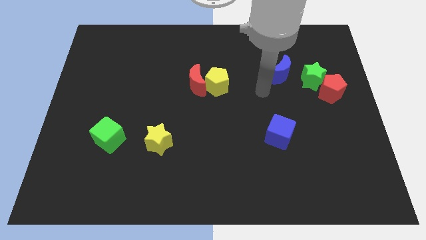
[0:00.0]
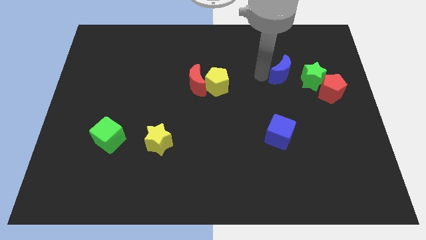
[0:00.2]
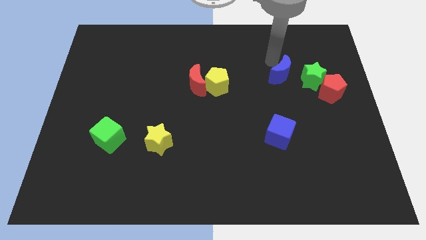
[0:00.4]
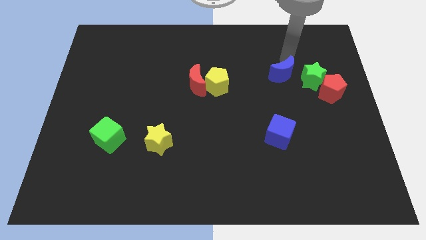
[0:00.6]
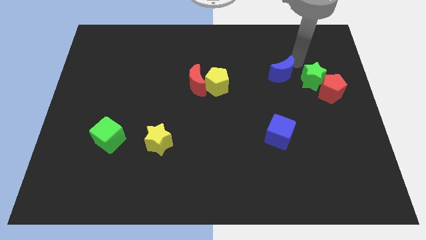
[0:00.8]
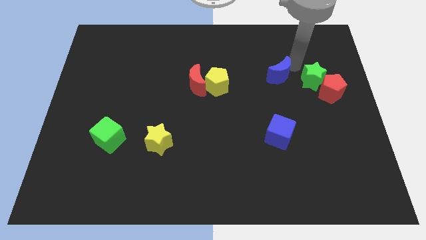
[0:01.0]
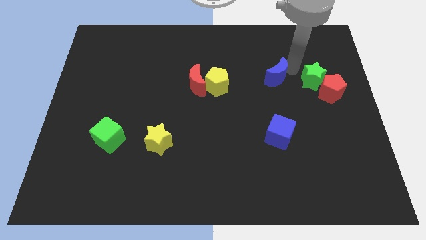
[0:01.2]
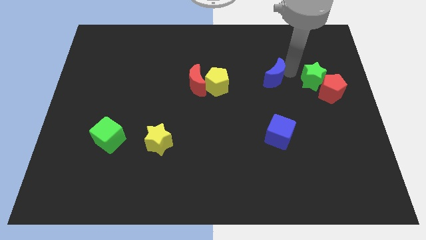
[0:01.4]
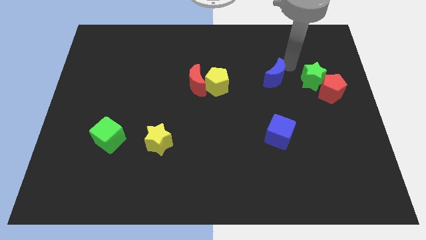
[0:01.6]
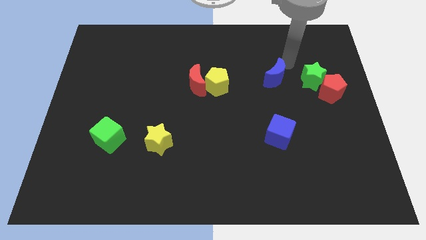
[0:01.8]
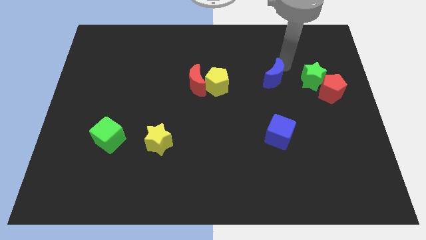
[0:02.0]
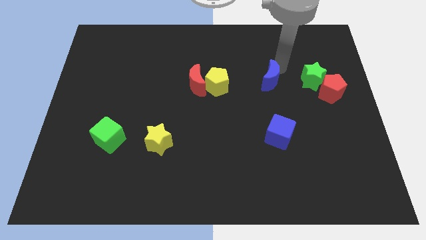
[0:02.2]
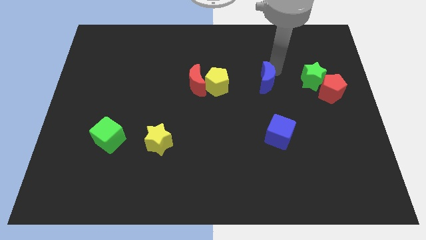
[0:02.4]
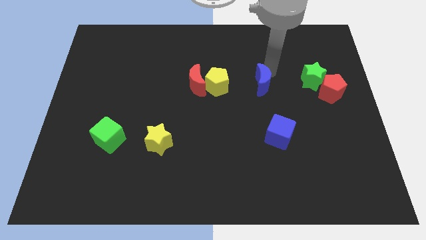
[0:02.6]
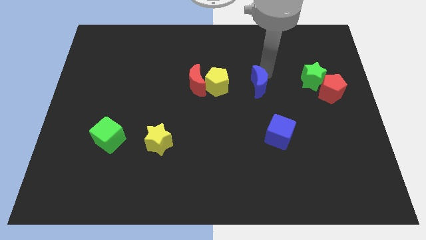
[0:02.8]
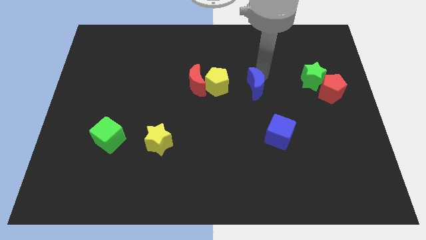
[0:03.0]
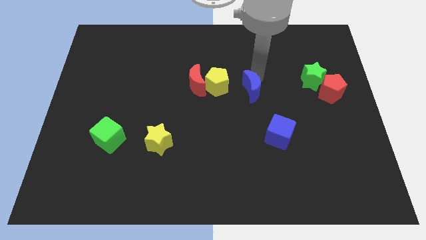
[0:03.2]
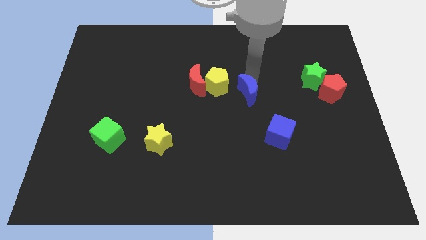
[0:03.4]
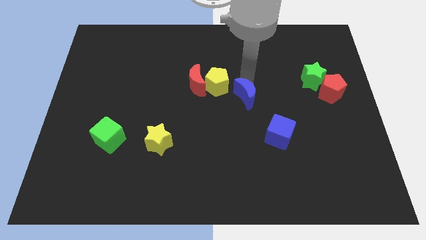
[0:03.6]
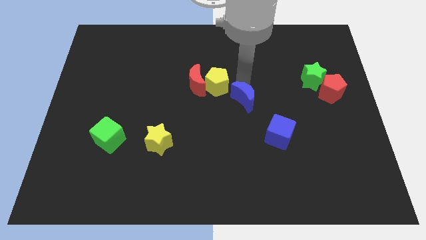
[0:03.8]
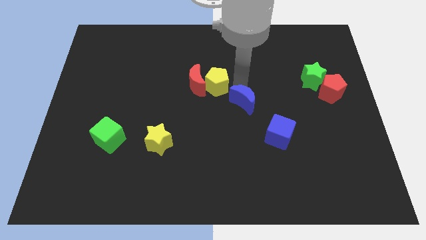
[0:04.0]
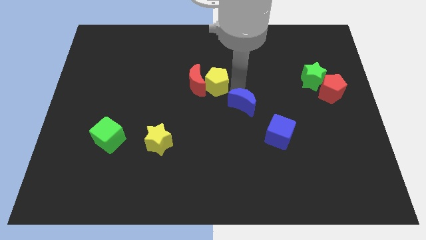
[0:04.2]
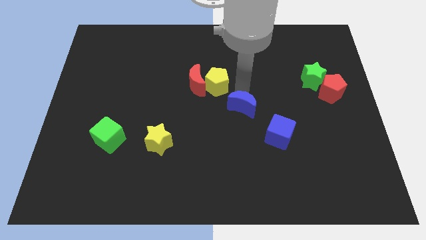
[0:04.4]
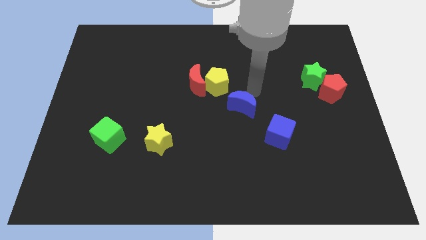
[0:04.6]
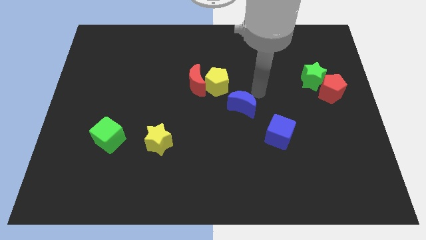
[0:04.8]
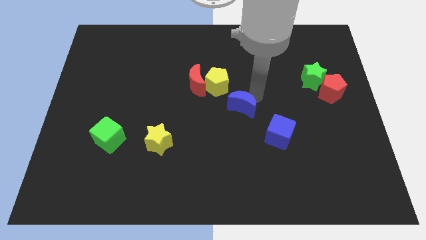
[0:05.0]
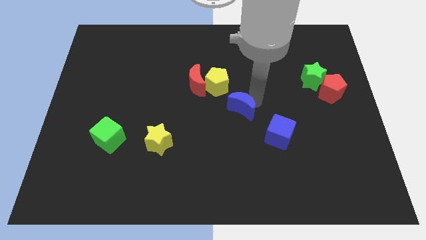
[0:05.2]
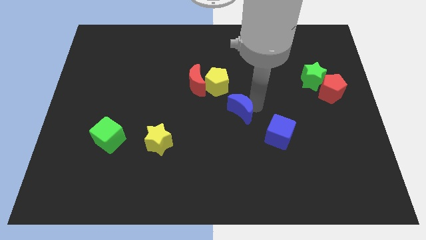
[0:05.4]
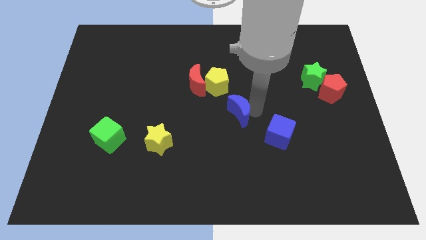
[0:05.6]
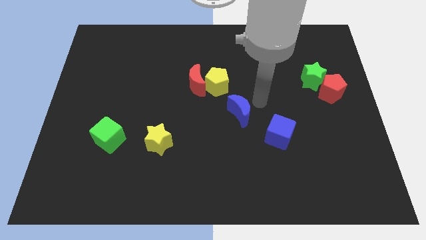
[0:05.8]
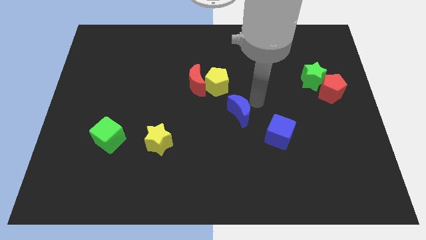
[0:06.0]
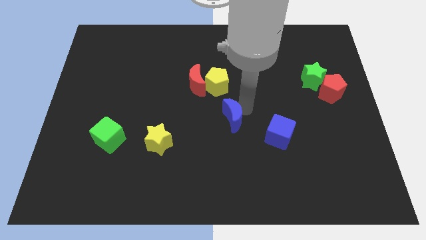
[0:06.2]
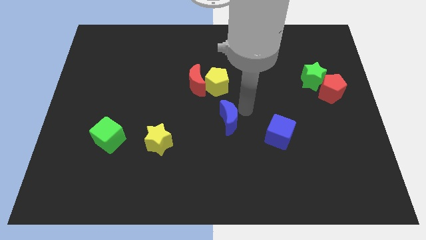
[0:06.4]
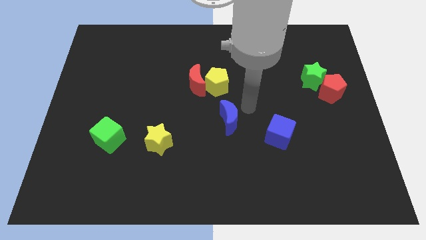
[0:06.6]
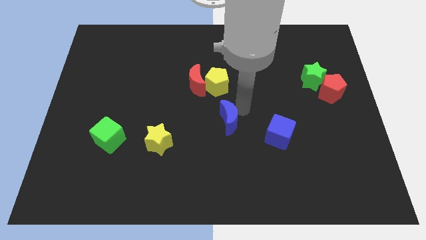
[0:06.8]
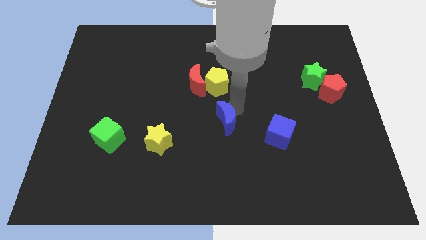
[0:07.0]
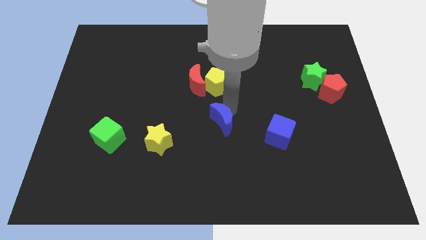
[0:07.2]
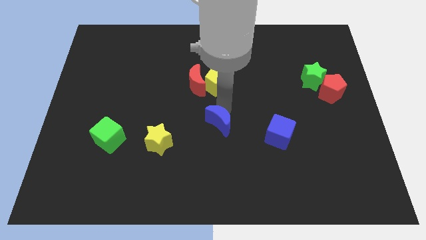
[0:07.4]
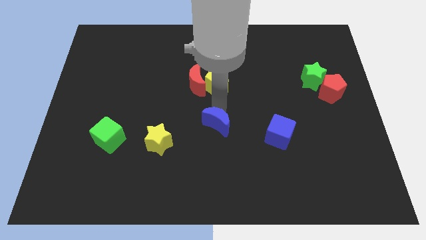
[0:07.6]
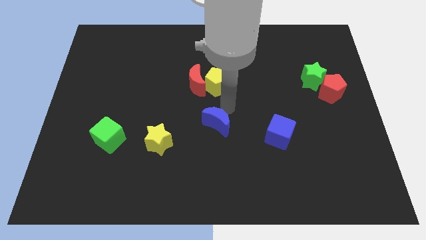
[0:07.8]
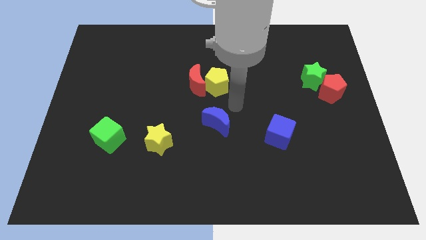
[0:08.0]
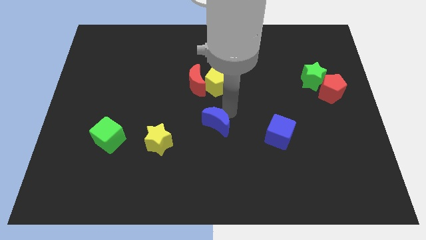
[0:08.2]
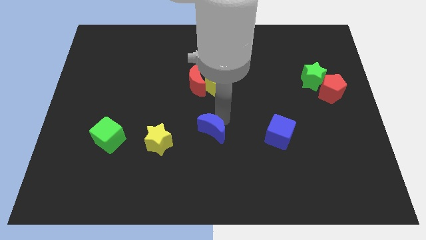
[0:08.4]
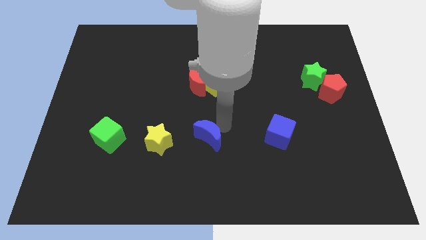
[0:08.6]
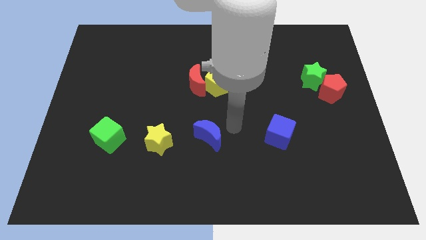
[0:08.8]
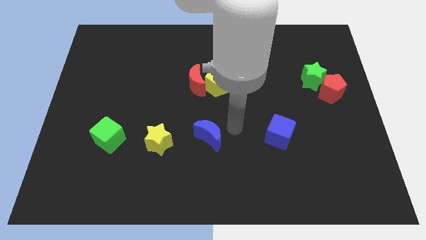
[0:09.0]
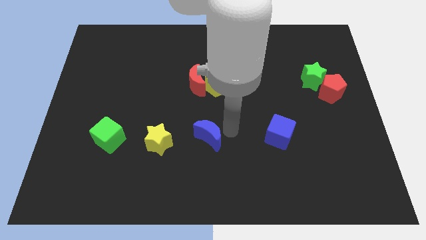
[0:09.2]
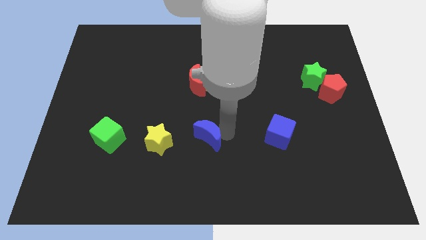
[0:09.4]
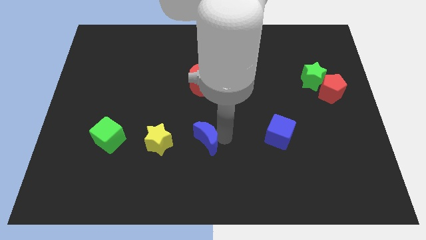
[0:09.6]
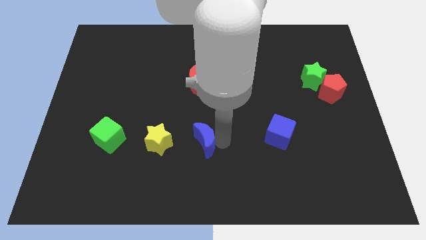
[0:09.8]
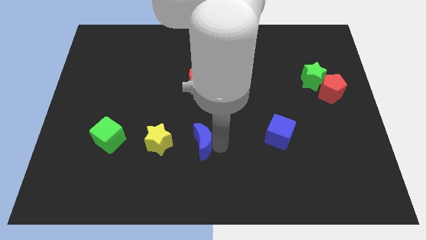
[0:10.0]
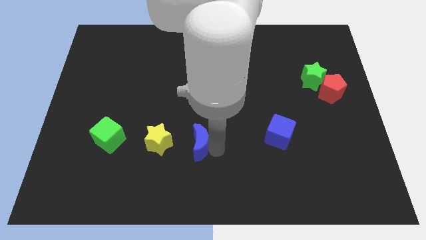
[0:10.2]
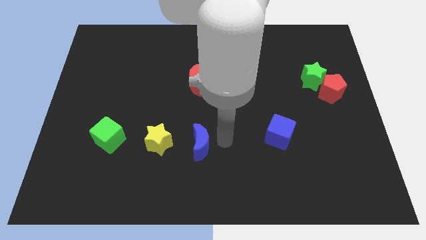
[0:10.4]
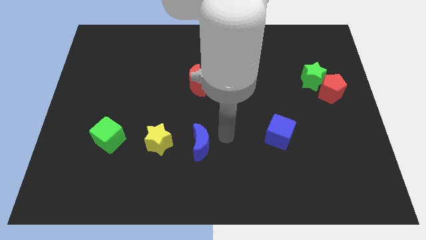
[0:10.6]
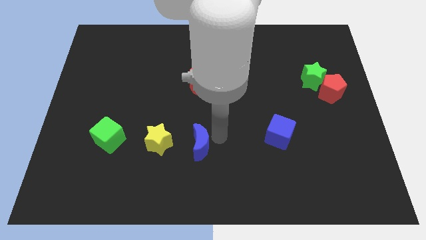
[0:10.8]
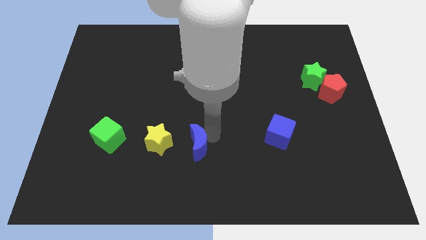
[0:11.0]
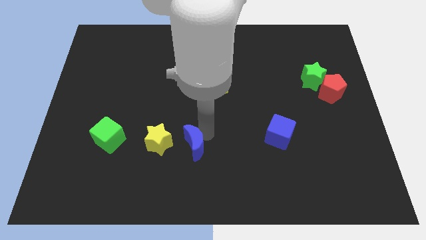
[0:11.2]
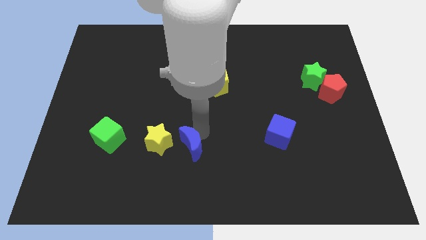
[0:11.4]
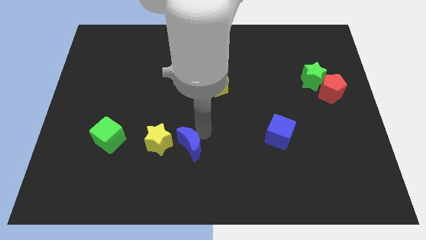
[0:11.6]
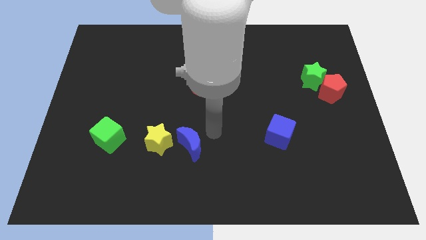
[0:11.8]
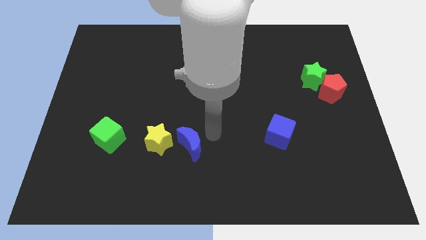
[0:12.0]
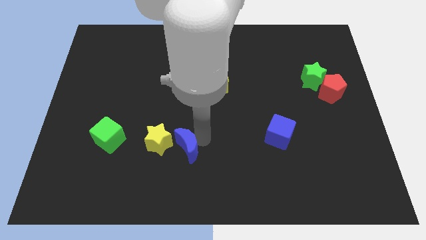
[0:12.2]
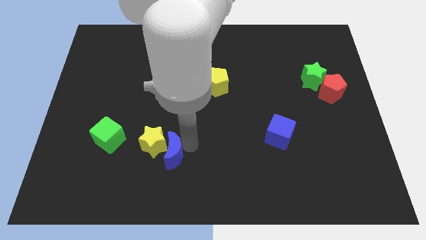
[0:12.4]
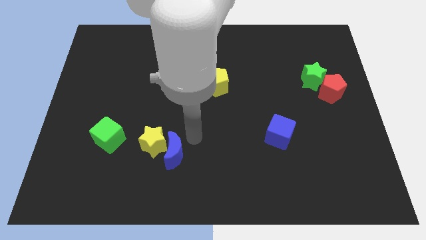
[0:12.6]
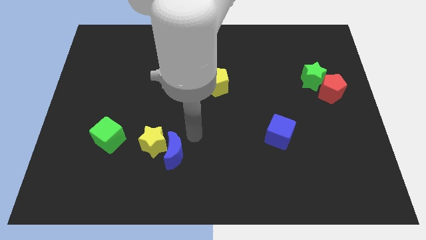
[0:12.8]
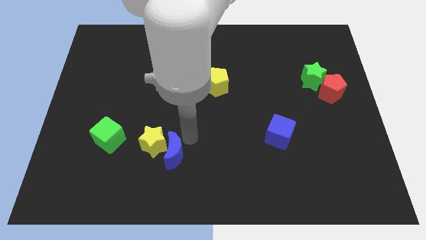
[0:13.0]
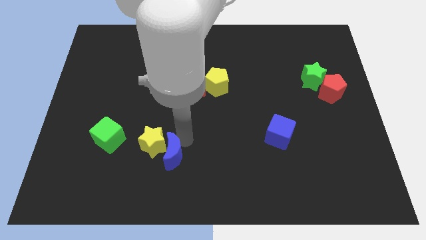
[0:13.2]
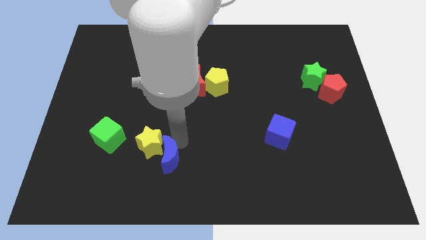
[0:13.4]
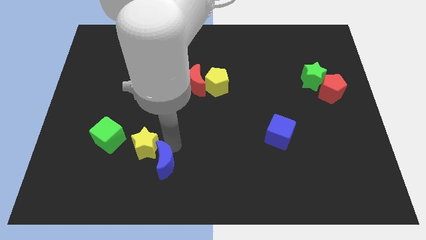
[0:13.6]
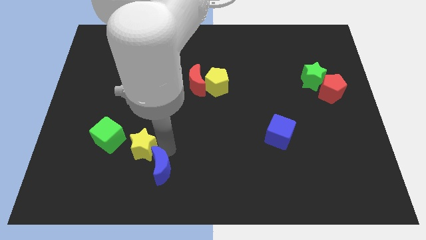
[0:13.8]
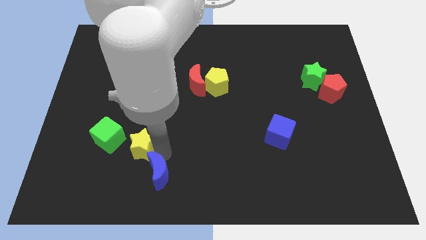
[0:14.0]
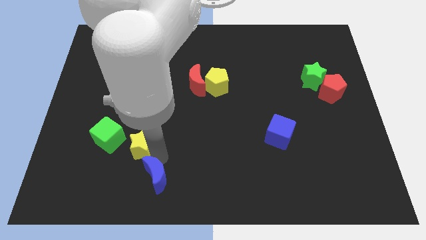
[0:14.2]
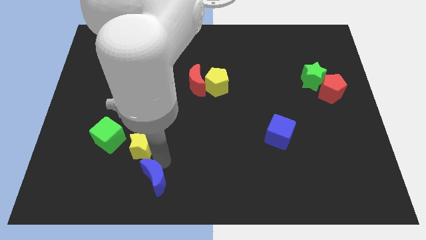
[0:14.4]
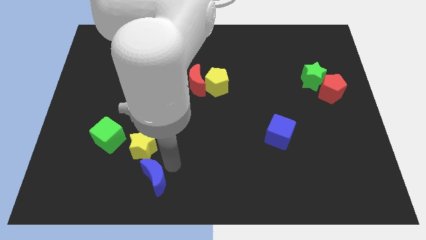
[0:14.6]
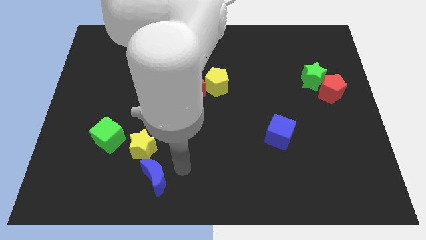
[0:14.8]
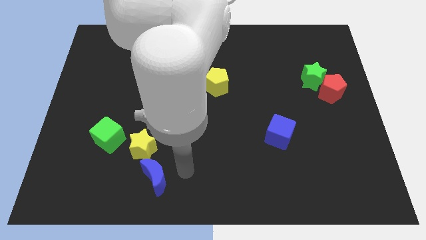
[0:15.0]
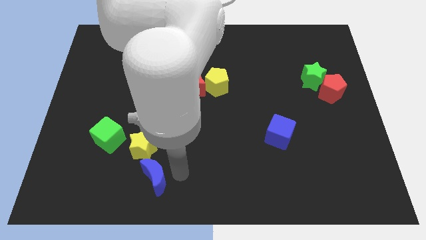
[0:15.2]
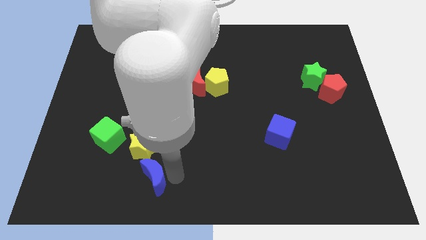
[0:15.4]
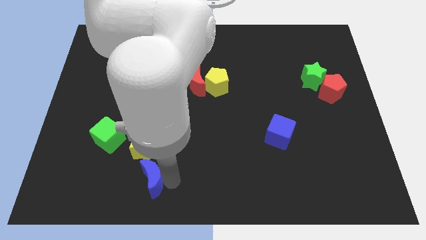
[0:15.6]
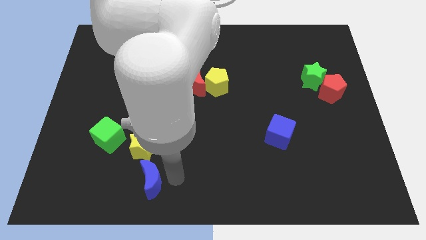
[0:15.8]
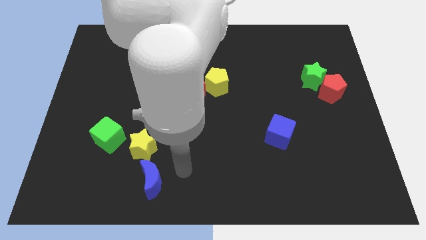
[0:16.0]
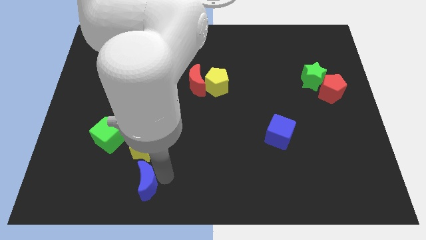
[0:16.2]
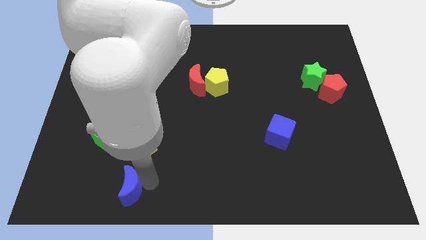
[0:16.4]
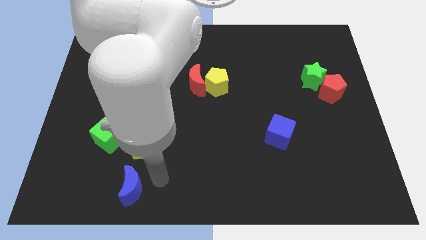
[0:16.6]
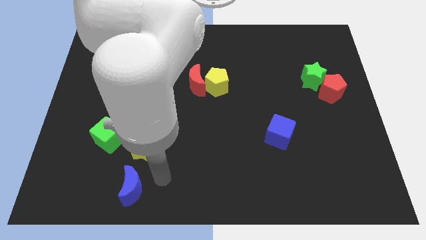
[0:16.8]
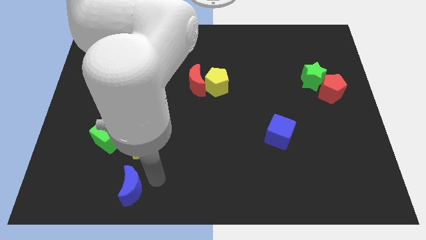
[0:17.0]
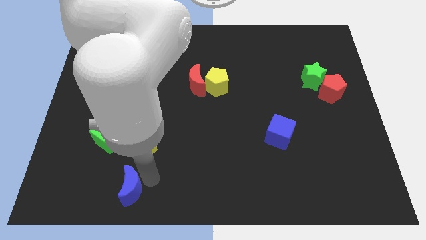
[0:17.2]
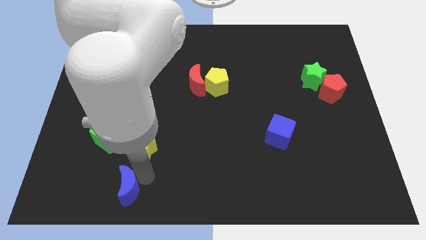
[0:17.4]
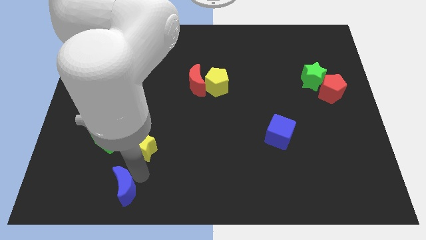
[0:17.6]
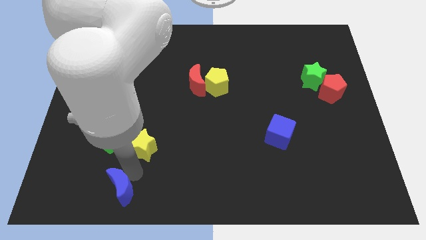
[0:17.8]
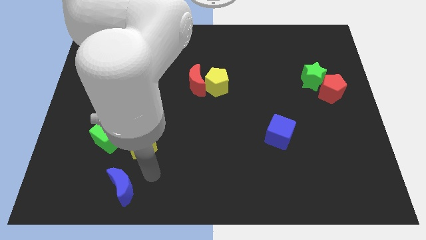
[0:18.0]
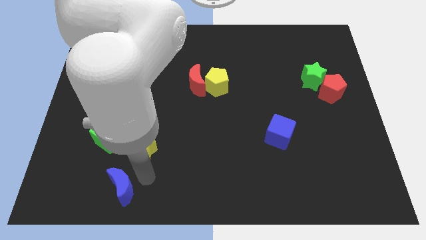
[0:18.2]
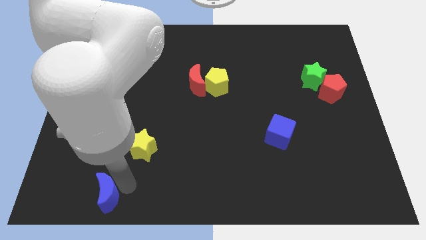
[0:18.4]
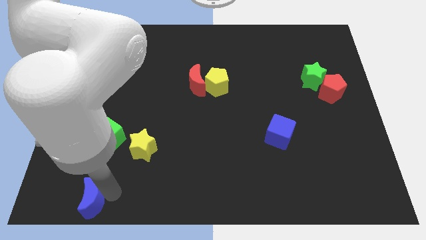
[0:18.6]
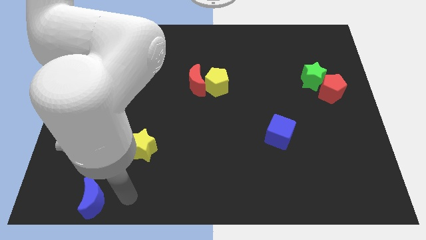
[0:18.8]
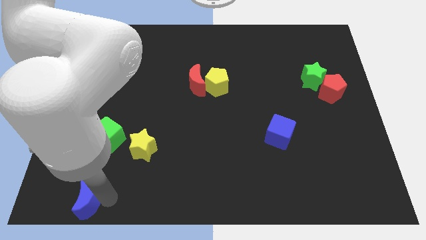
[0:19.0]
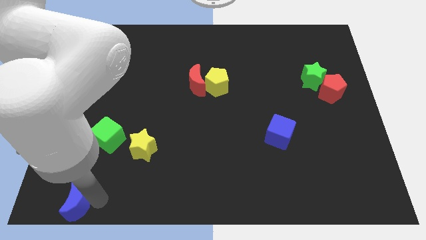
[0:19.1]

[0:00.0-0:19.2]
move the blue moon to the bottom left corner
